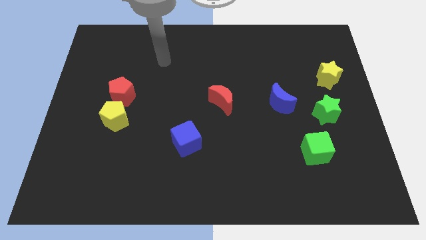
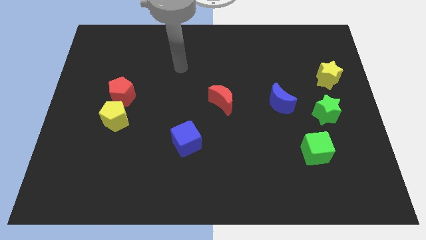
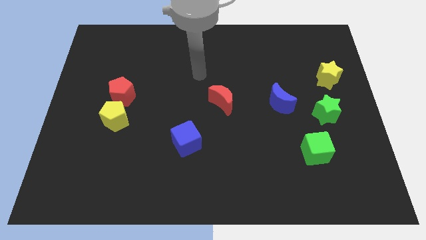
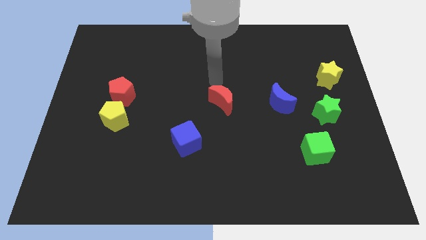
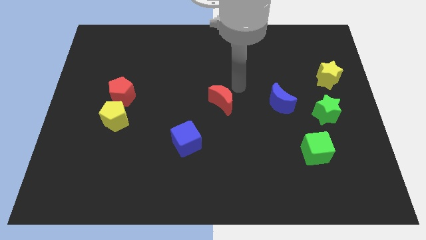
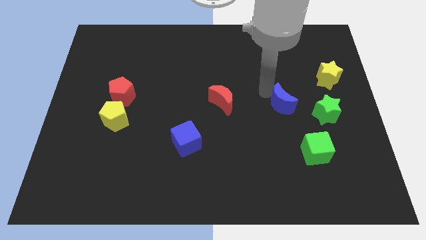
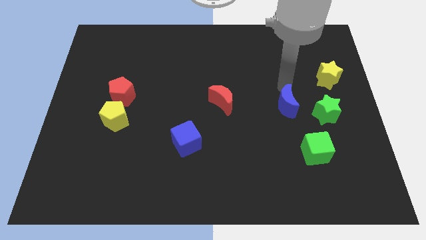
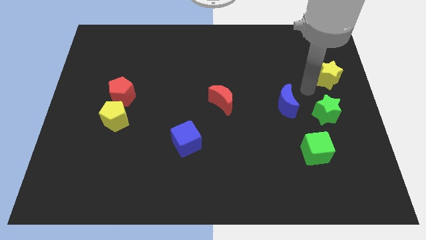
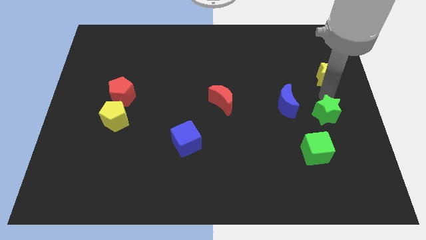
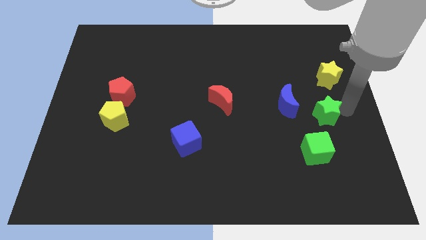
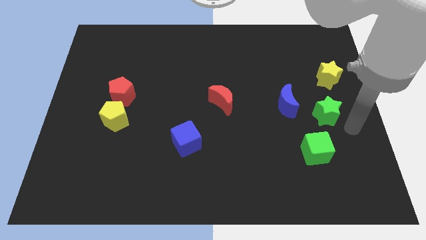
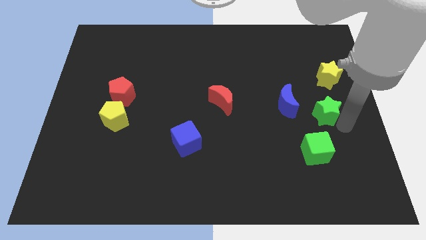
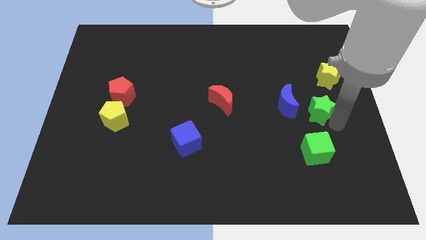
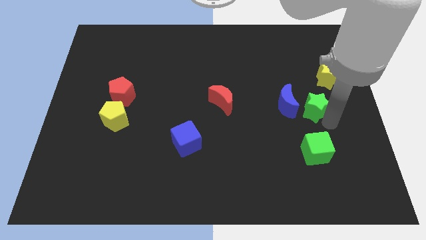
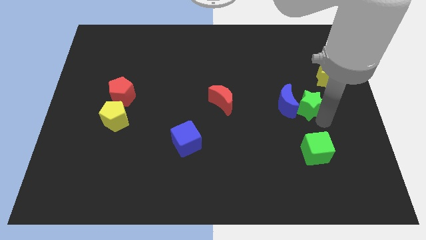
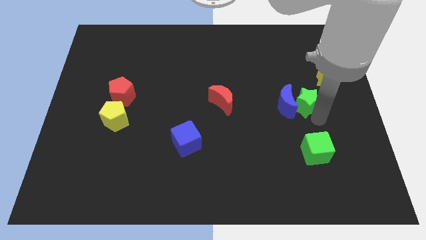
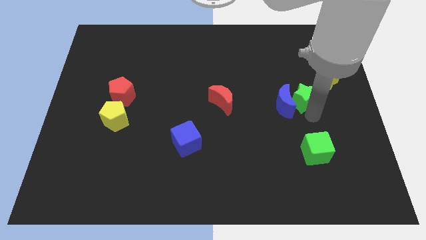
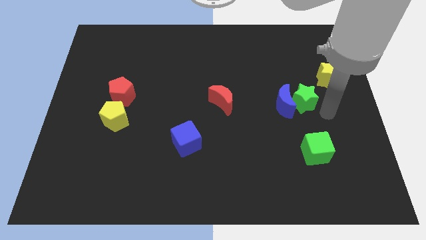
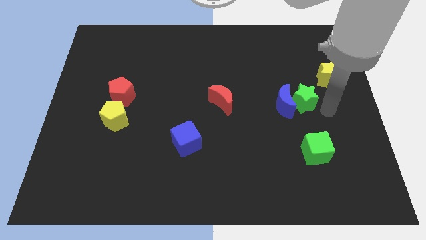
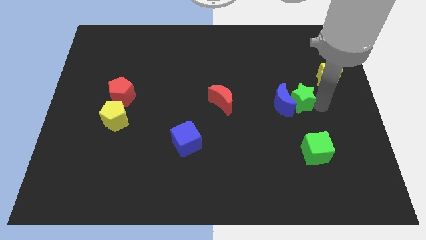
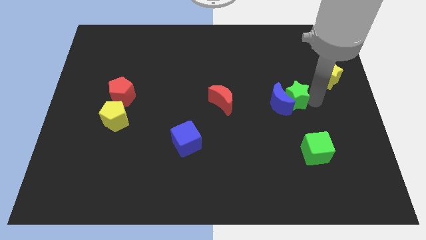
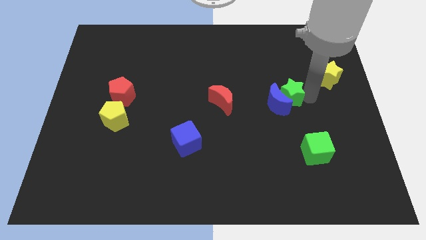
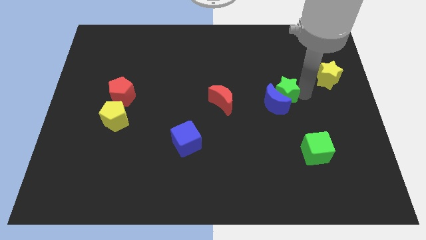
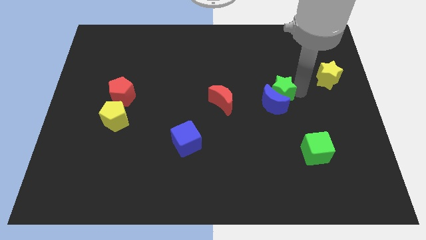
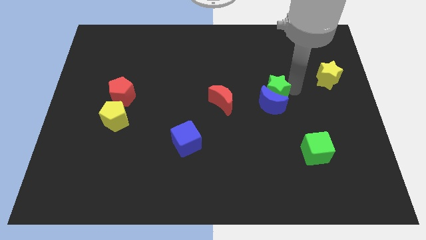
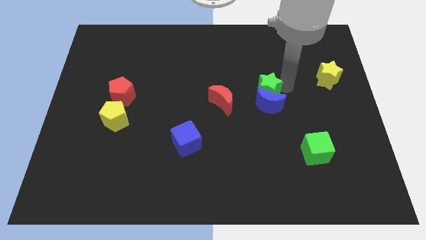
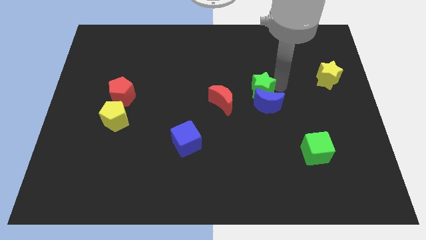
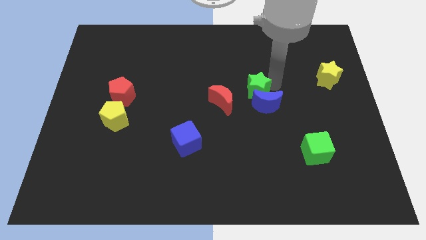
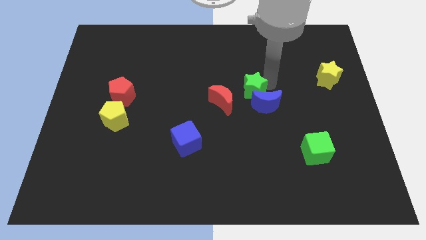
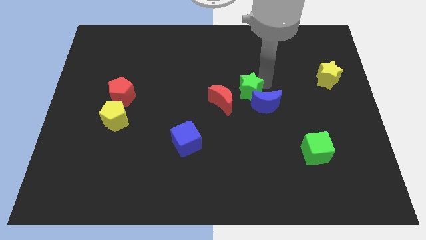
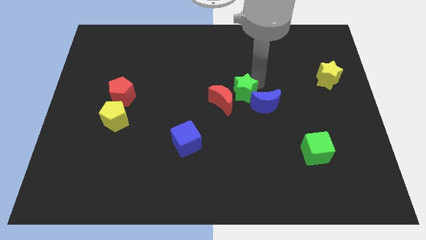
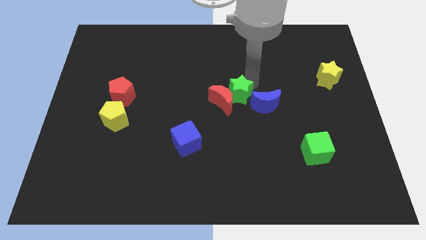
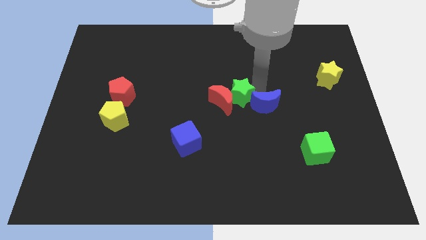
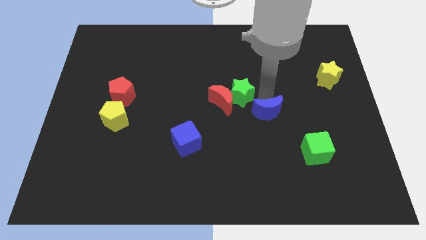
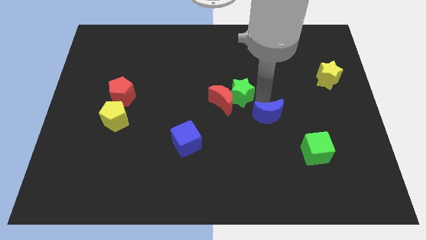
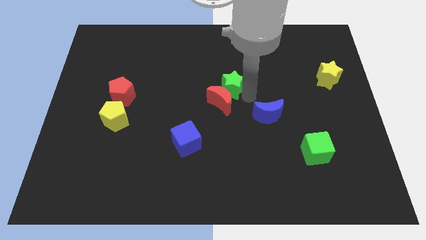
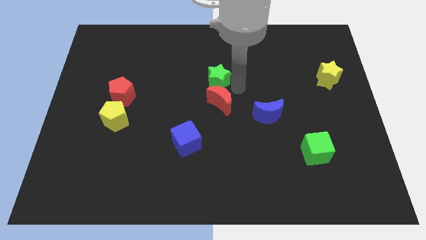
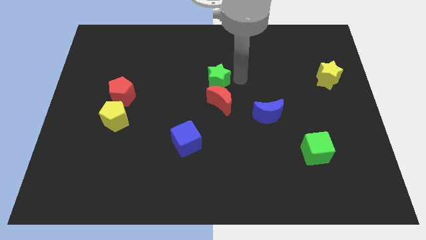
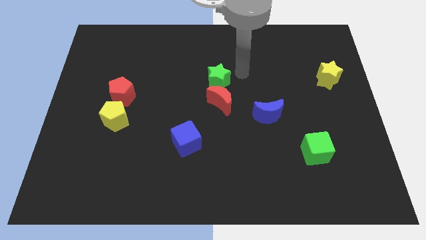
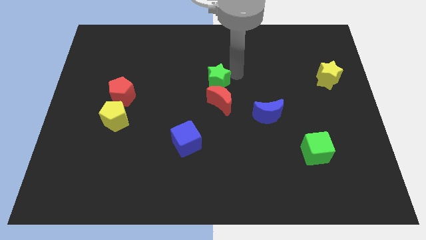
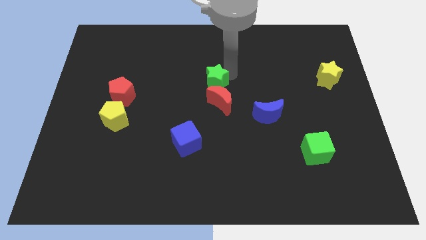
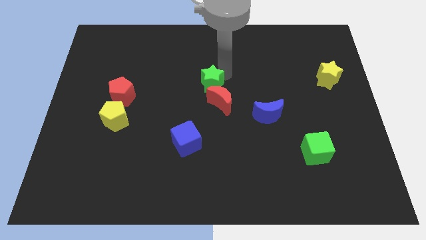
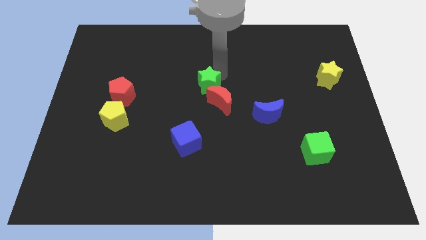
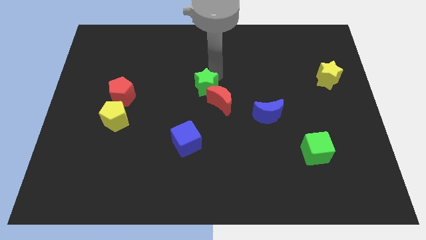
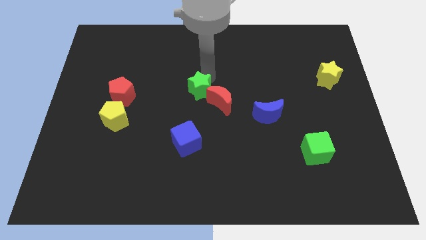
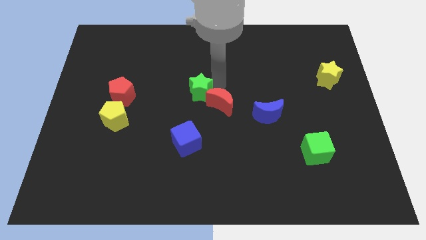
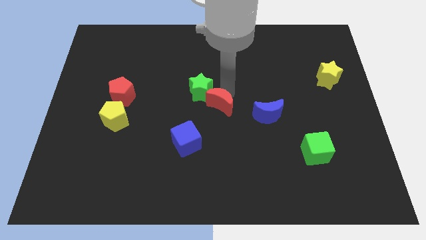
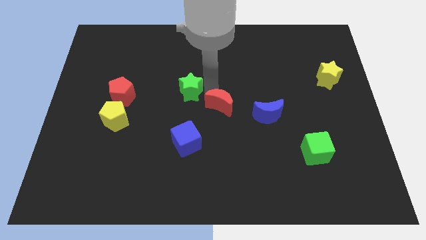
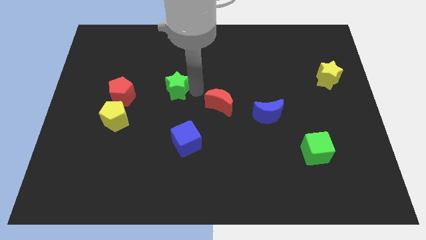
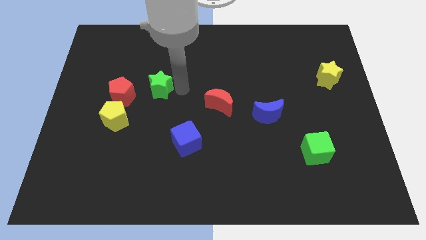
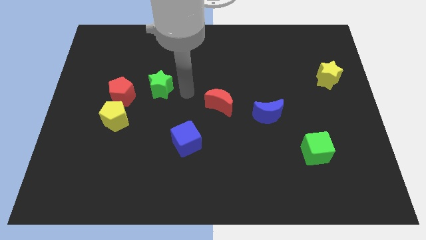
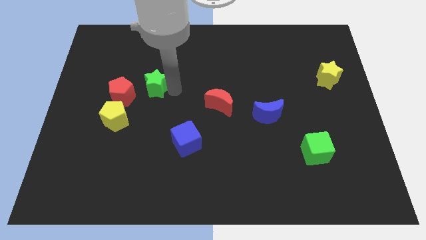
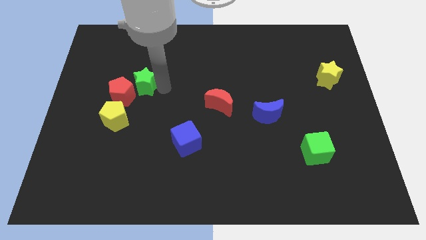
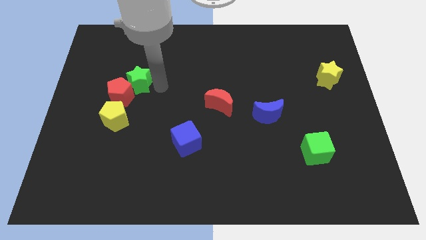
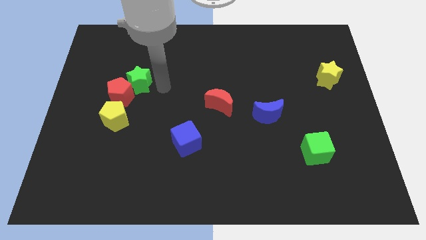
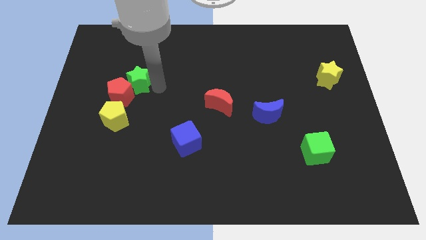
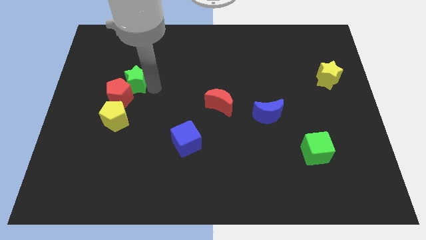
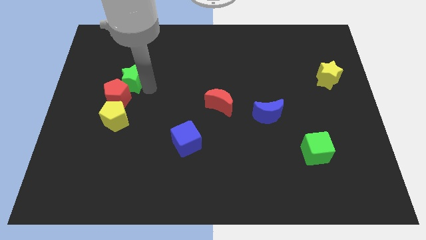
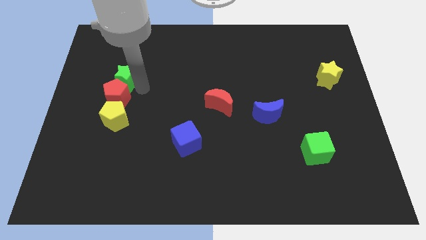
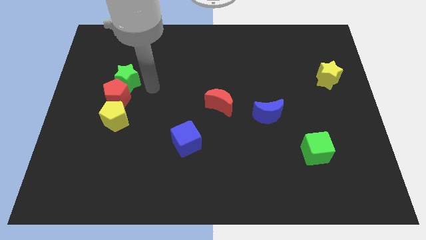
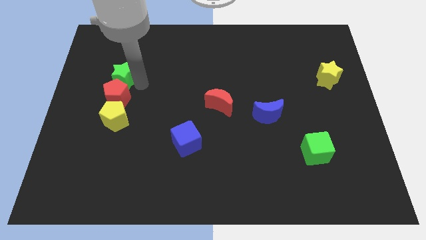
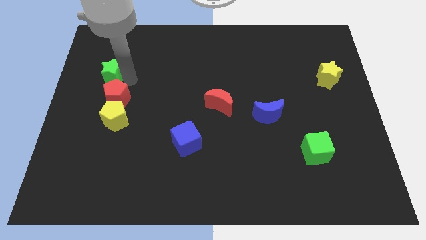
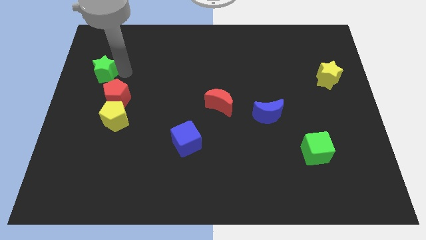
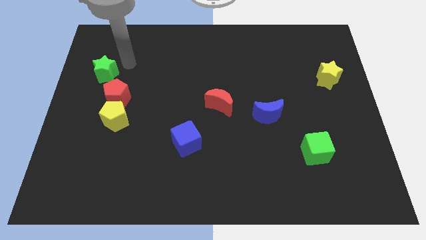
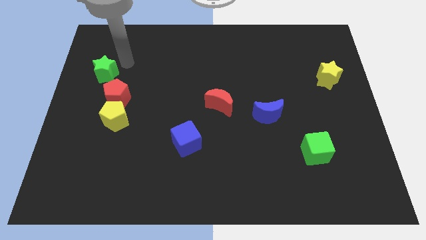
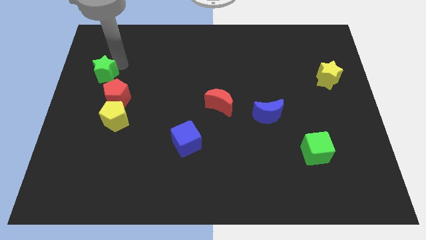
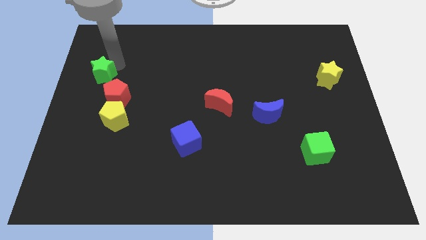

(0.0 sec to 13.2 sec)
push the green star to the left side

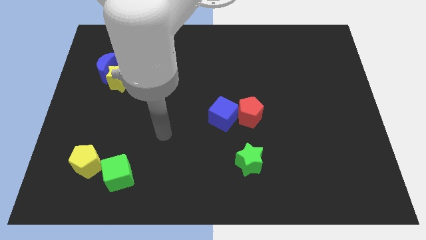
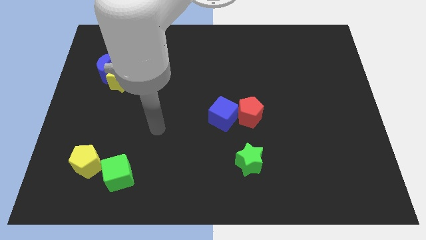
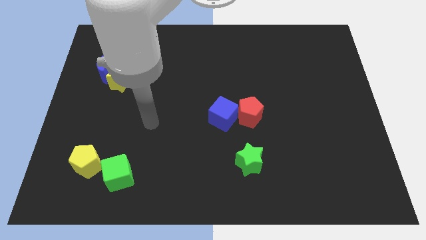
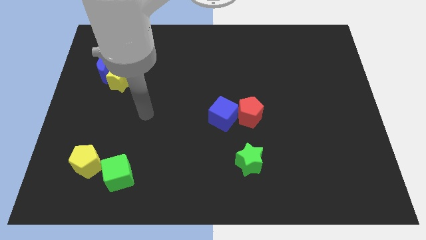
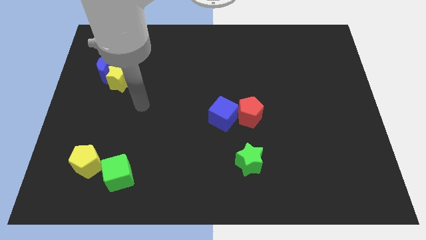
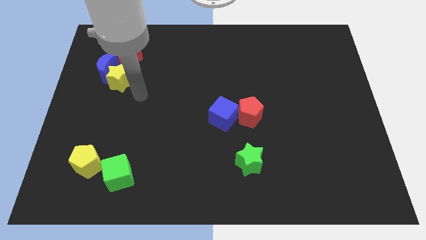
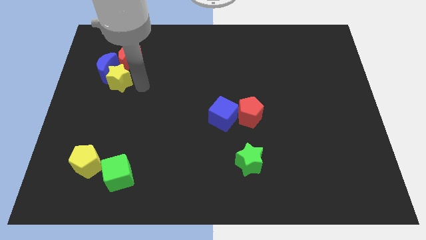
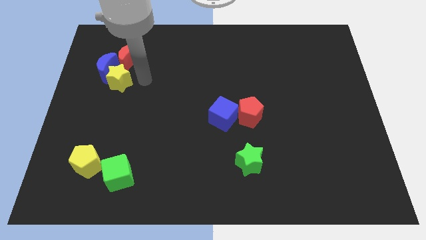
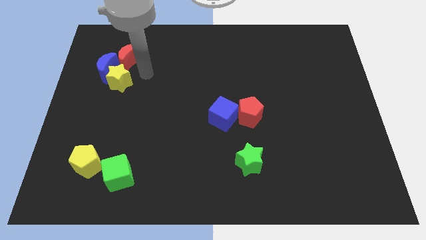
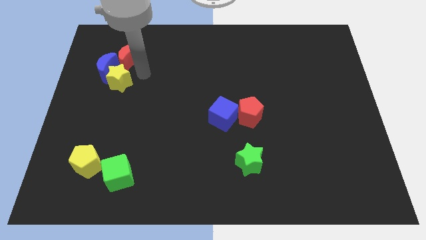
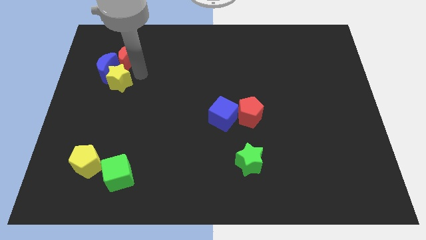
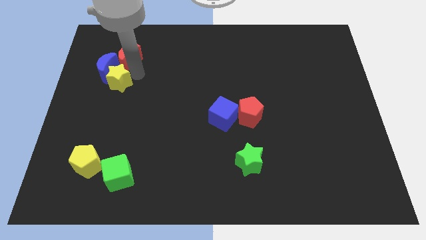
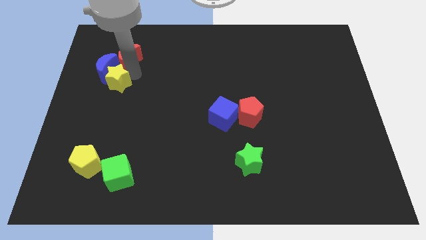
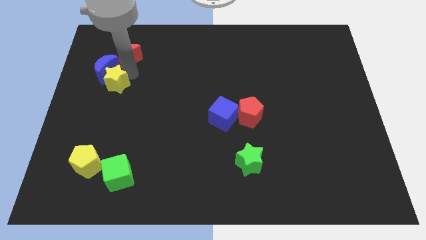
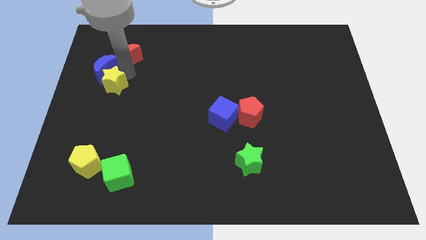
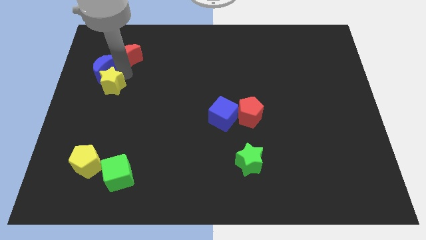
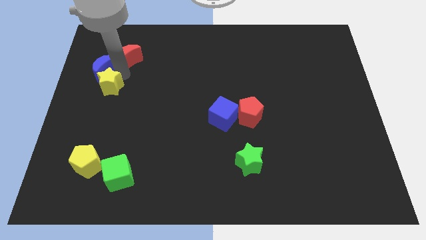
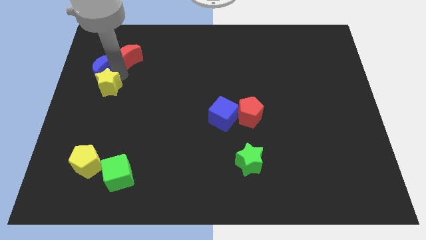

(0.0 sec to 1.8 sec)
slide the yellow star to the left side
